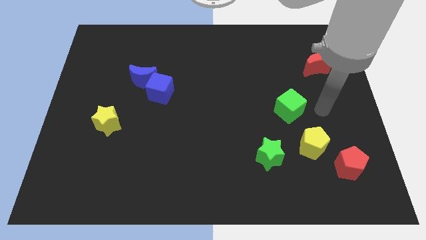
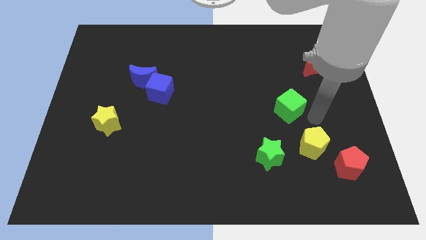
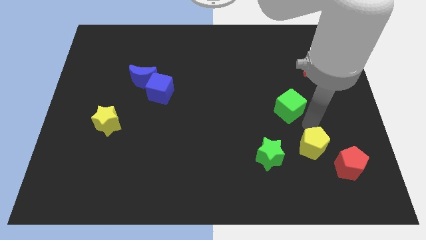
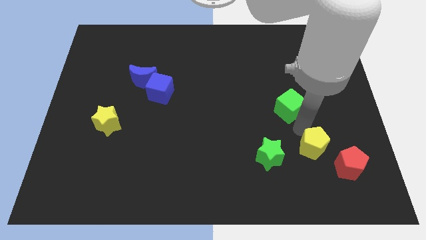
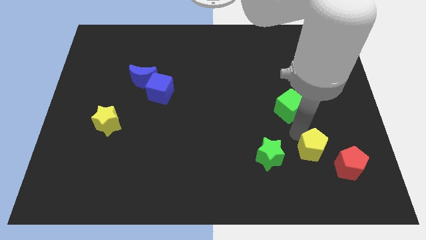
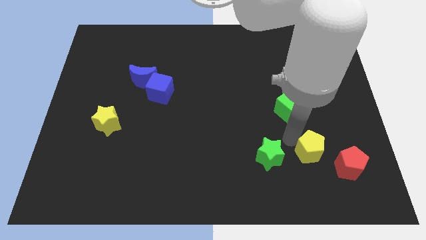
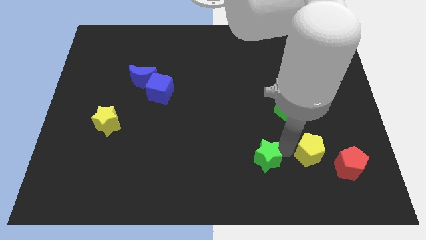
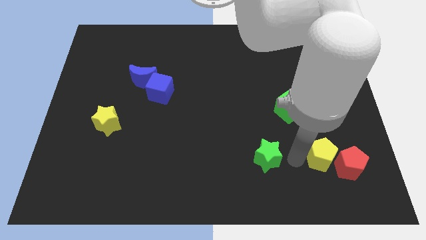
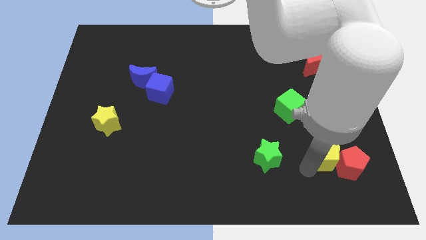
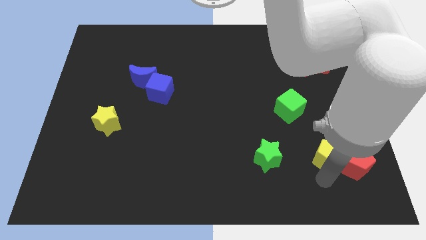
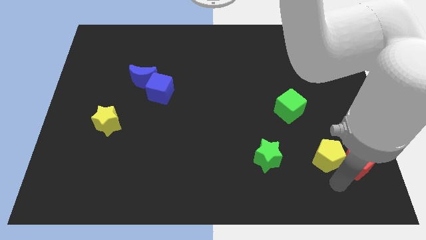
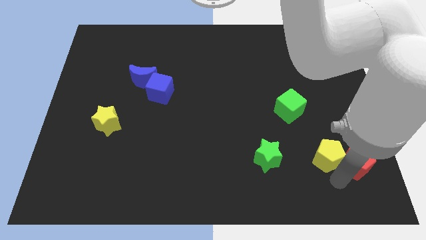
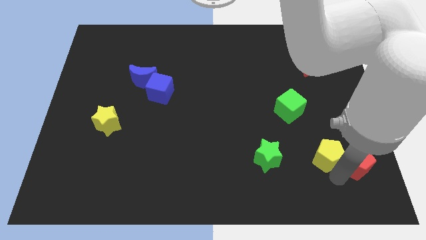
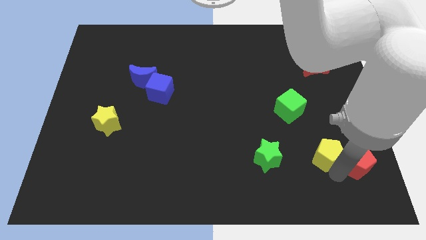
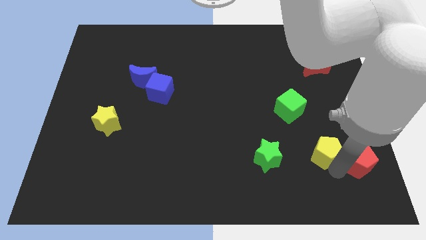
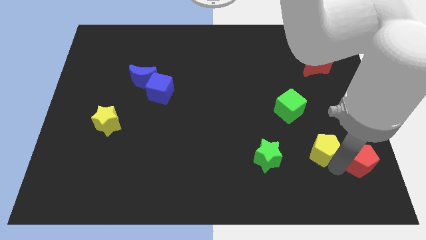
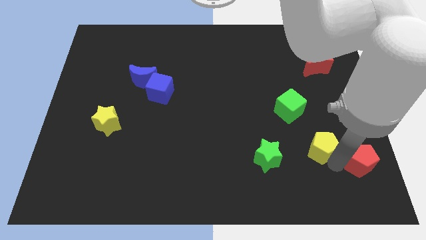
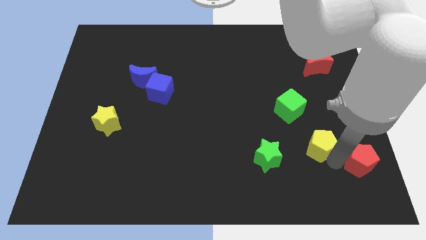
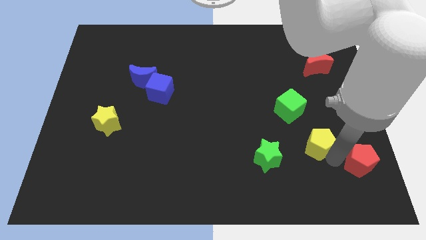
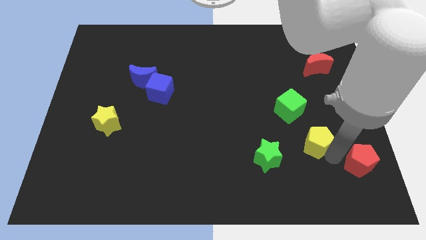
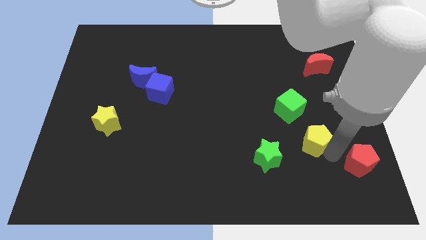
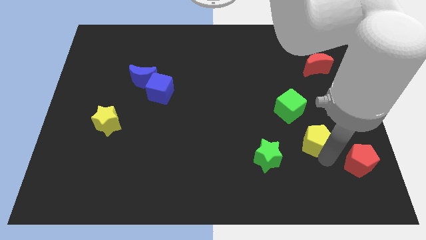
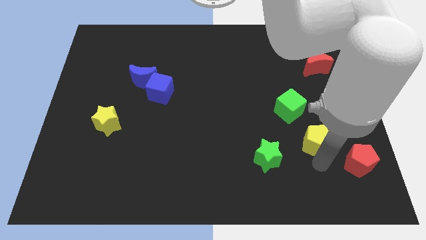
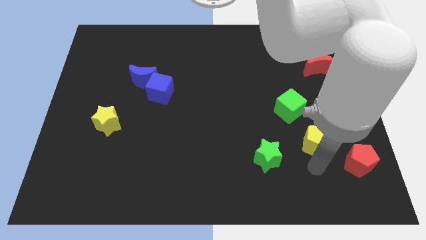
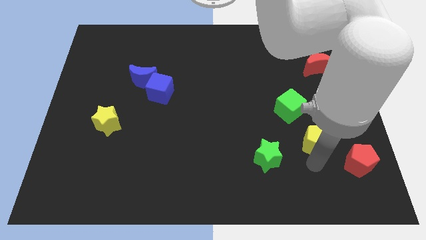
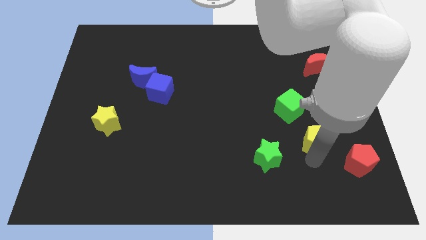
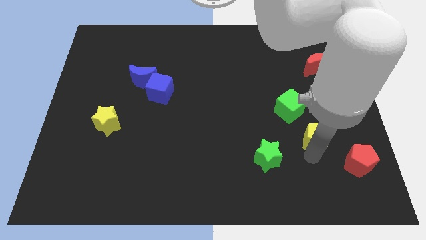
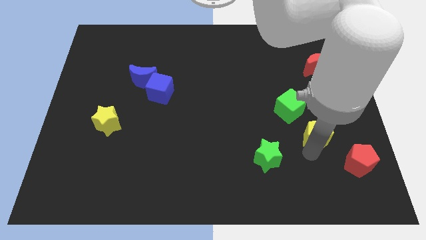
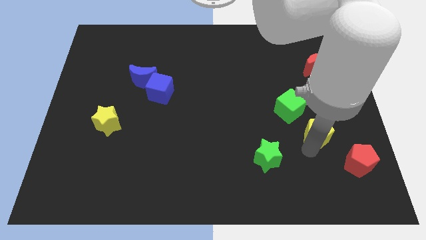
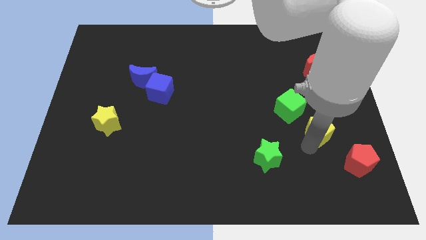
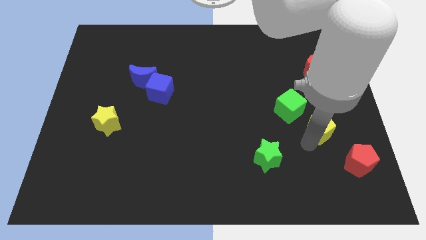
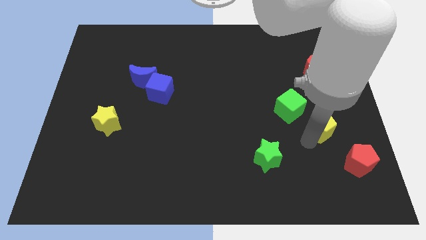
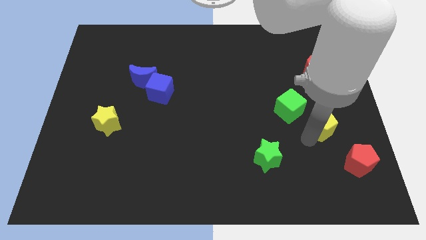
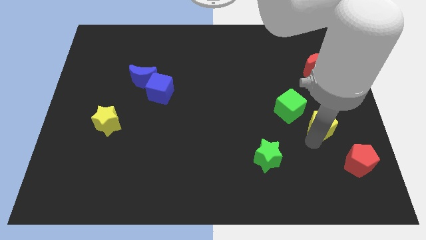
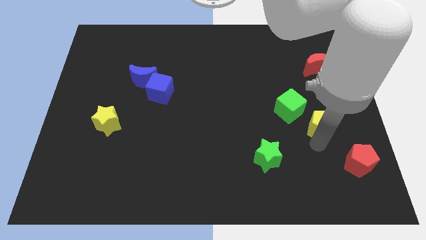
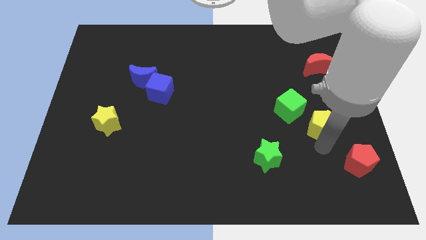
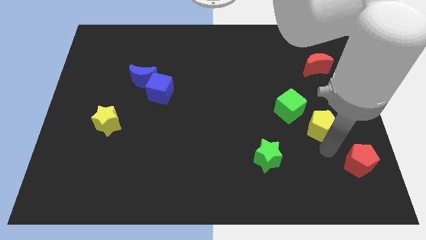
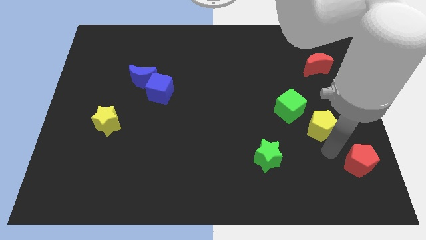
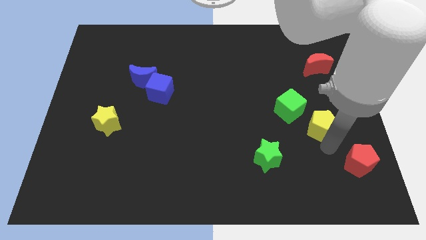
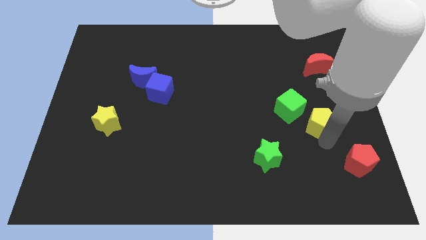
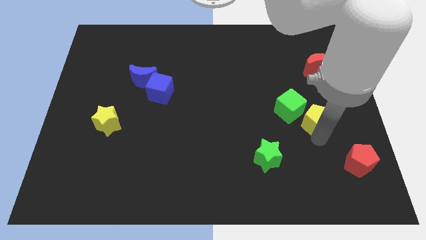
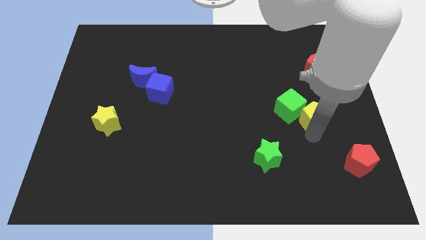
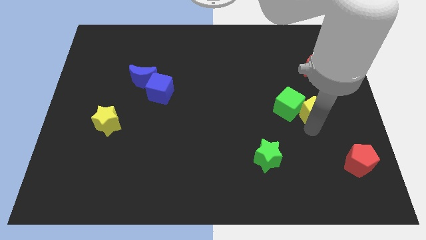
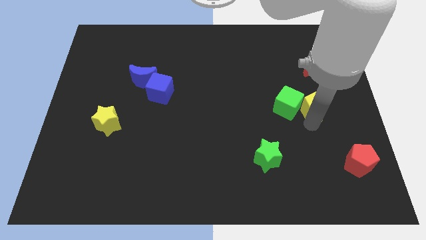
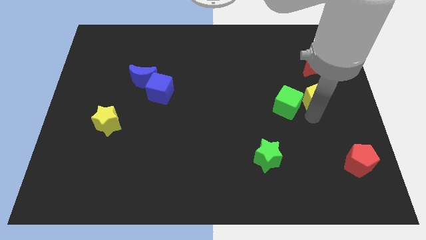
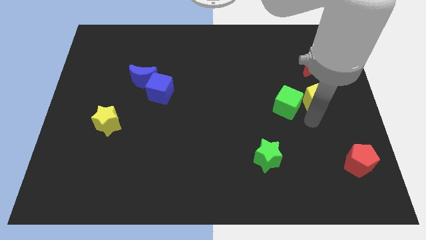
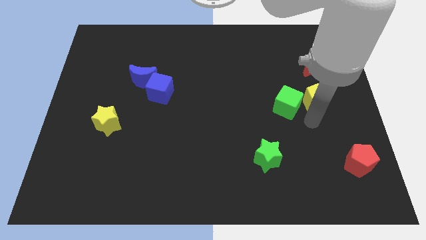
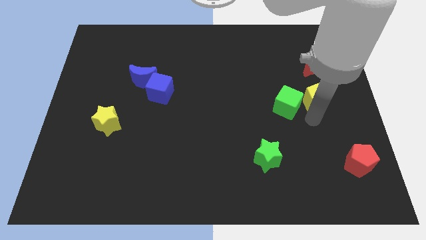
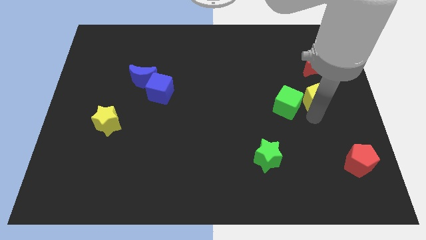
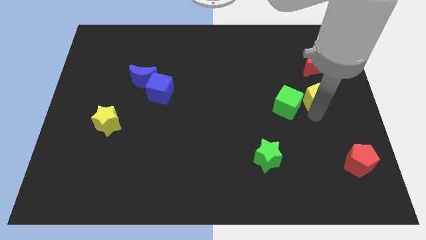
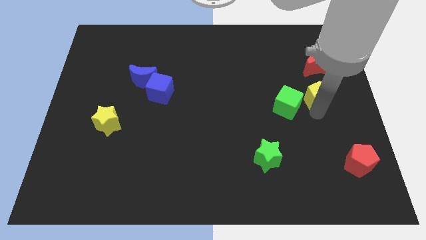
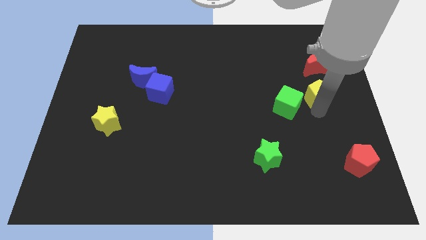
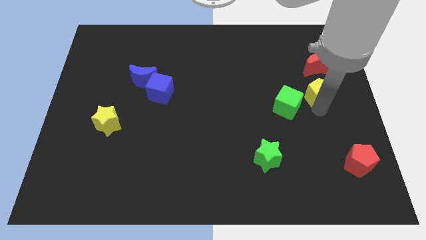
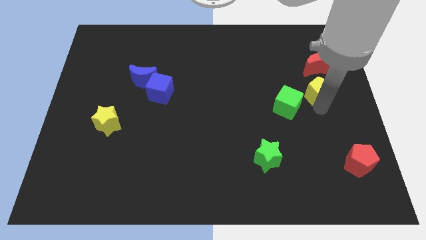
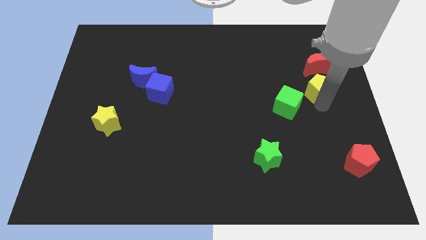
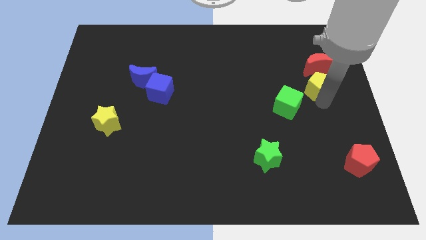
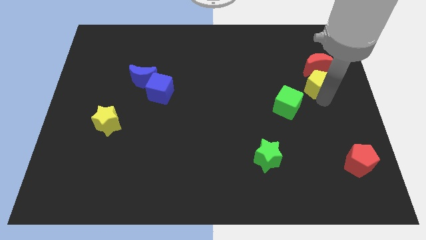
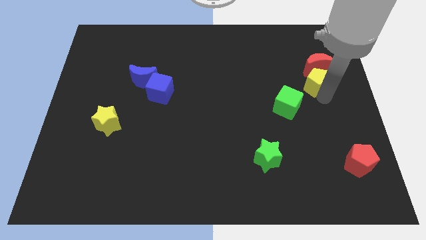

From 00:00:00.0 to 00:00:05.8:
put the yellow pentagon to the red moon
